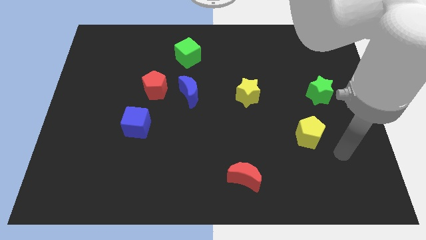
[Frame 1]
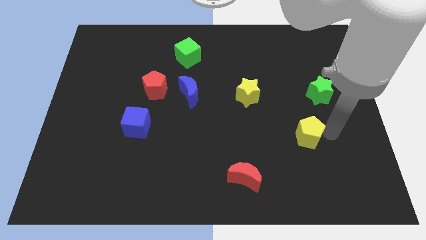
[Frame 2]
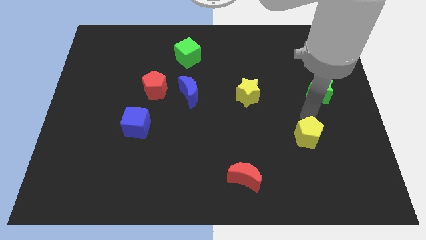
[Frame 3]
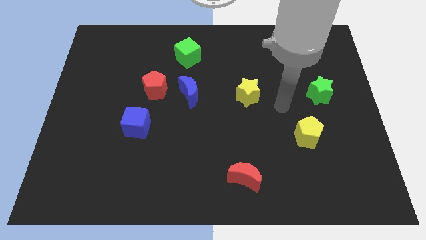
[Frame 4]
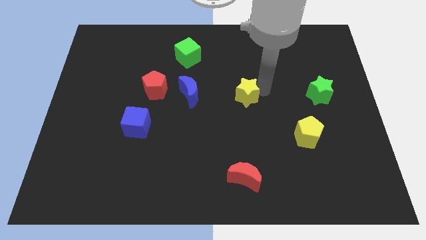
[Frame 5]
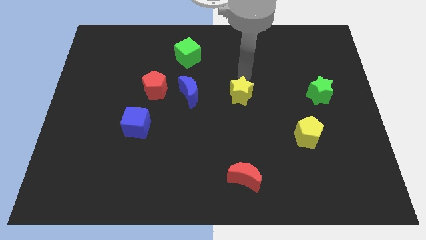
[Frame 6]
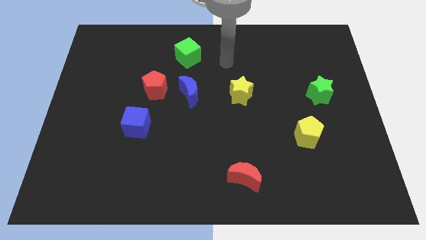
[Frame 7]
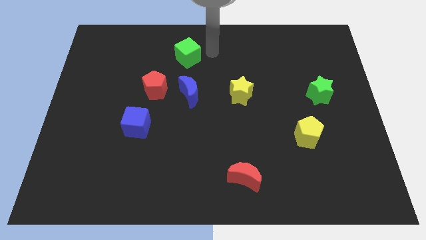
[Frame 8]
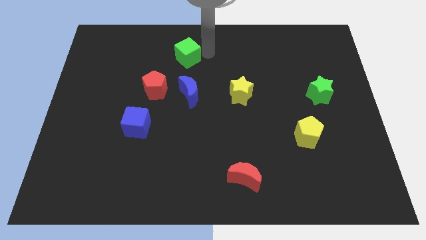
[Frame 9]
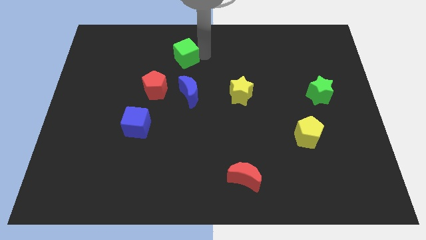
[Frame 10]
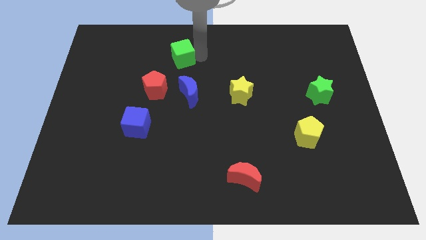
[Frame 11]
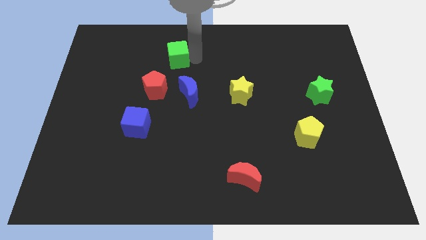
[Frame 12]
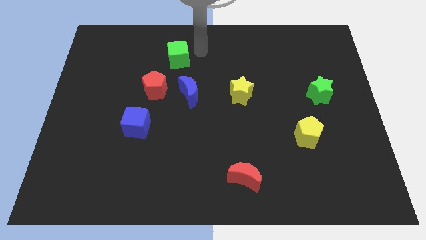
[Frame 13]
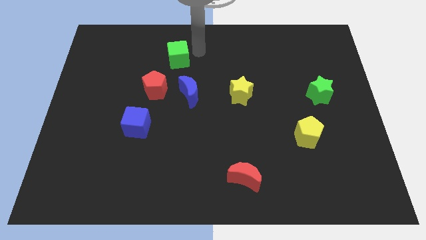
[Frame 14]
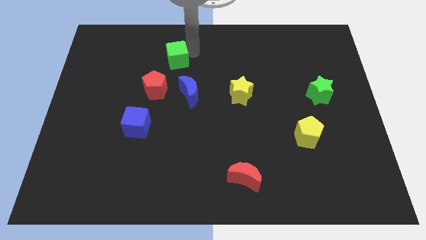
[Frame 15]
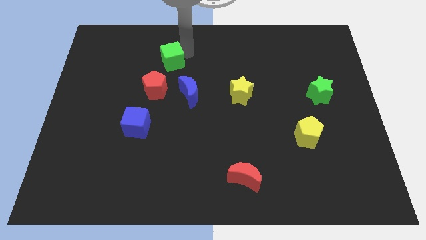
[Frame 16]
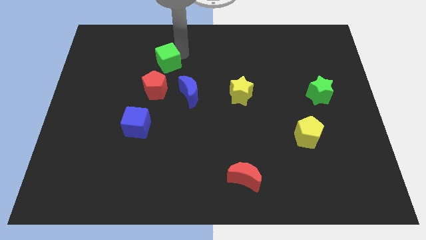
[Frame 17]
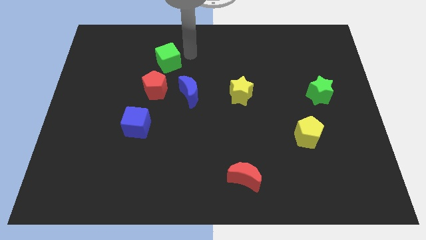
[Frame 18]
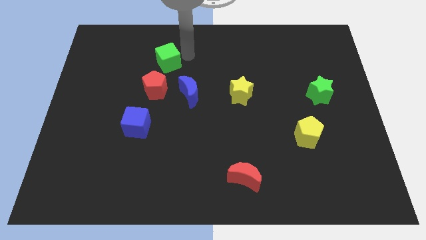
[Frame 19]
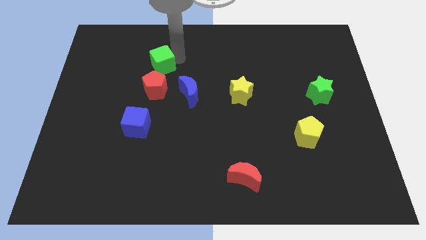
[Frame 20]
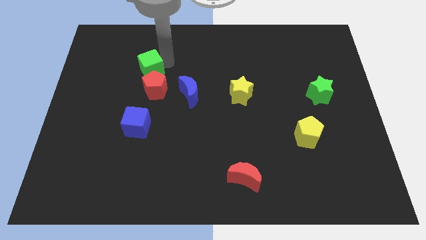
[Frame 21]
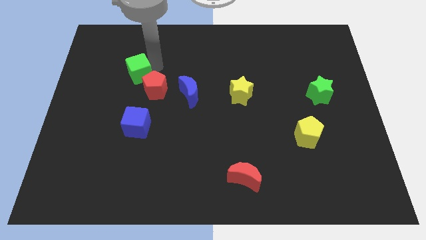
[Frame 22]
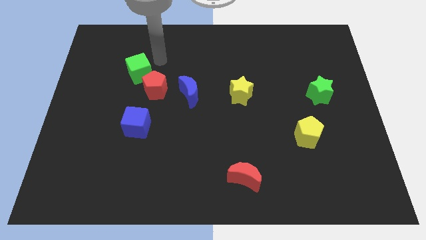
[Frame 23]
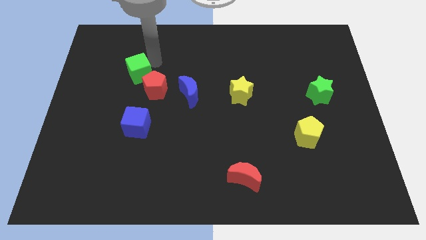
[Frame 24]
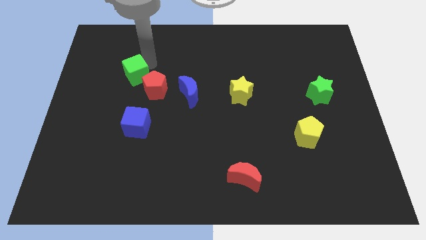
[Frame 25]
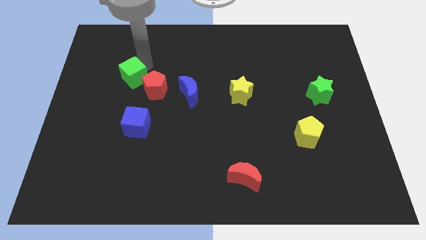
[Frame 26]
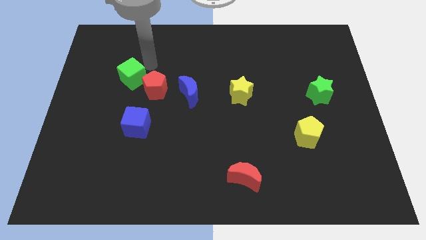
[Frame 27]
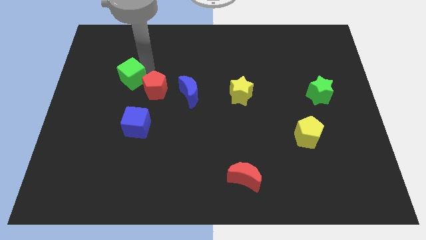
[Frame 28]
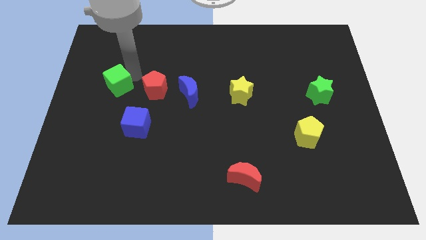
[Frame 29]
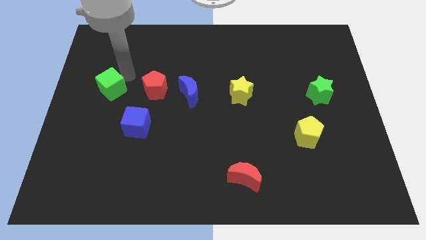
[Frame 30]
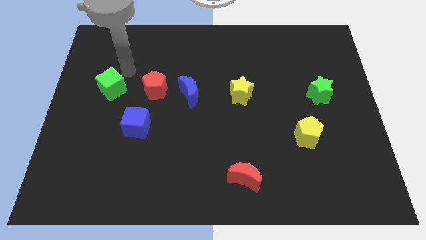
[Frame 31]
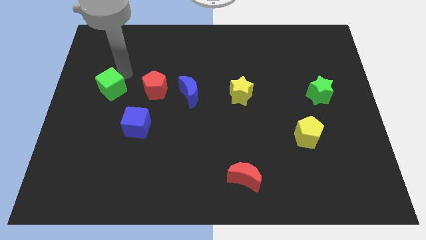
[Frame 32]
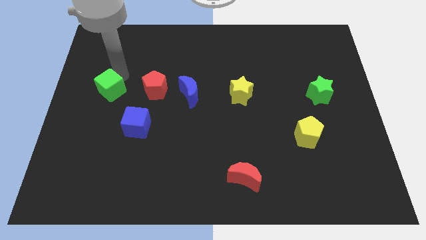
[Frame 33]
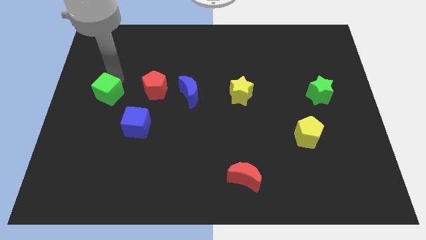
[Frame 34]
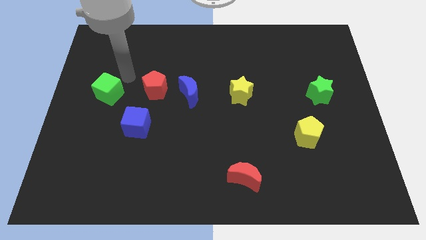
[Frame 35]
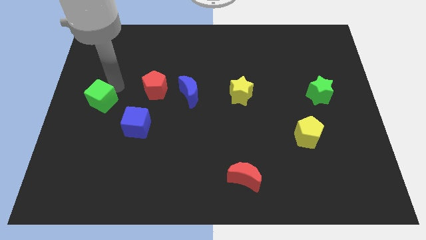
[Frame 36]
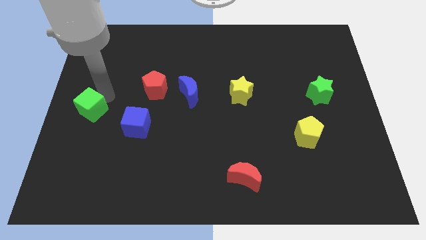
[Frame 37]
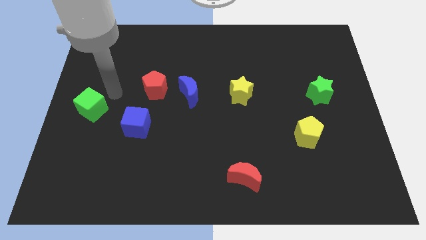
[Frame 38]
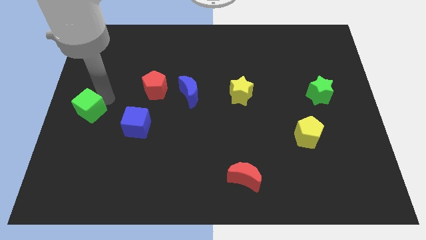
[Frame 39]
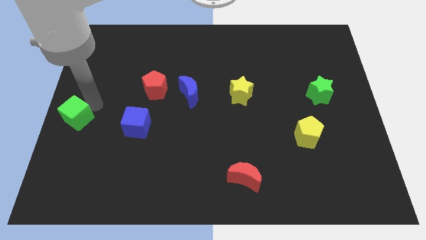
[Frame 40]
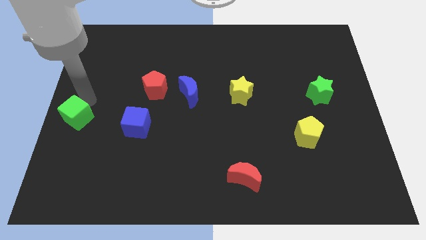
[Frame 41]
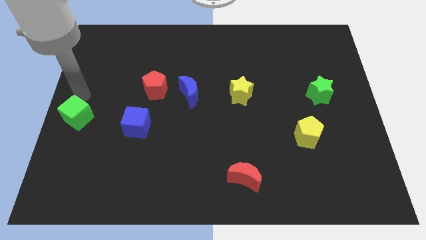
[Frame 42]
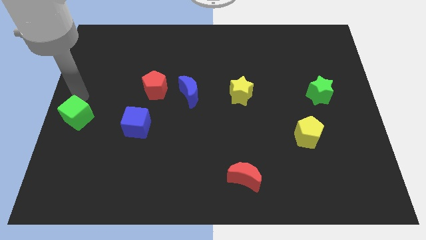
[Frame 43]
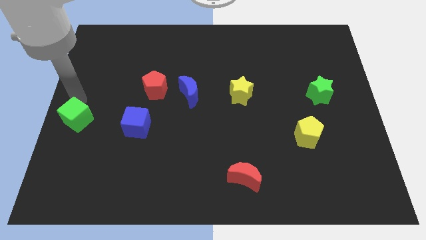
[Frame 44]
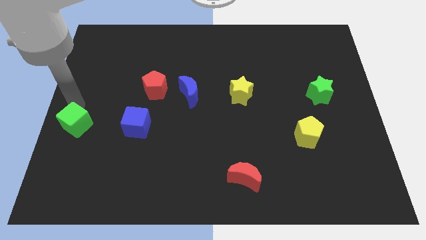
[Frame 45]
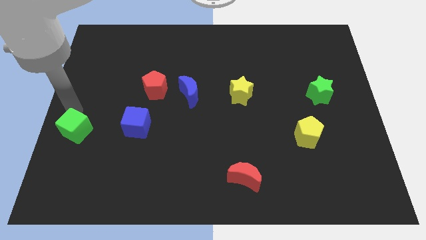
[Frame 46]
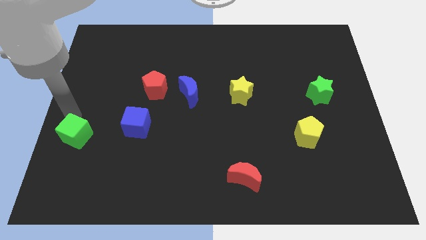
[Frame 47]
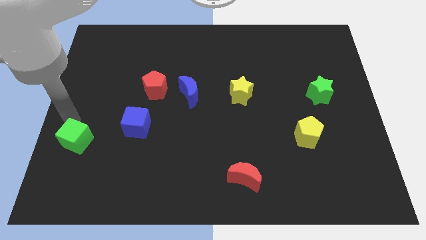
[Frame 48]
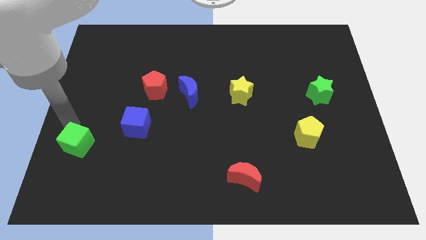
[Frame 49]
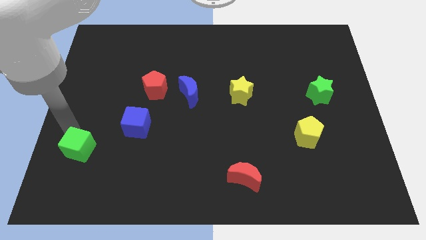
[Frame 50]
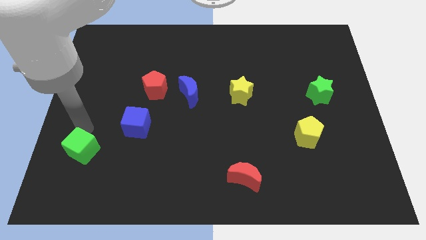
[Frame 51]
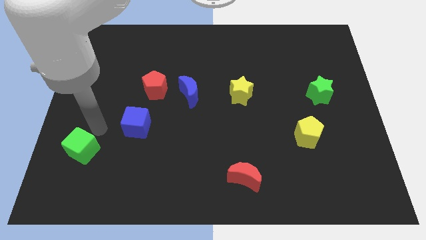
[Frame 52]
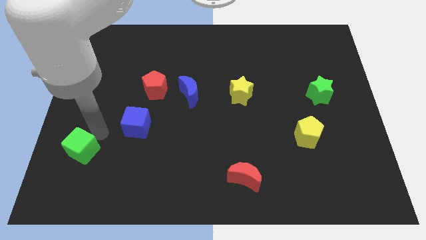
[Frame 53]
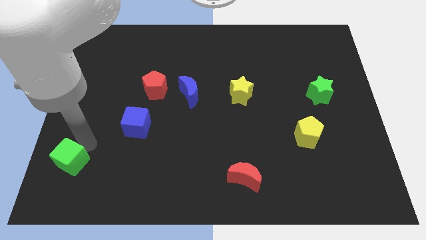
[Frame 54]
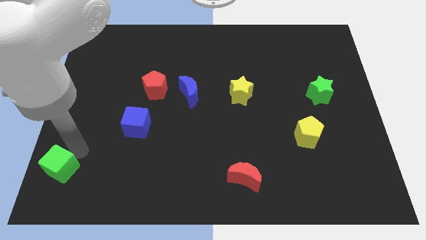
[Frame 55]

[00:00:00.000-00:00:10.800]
slide the green cube to the bottom left corner

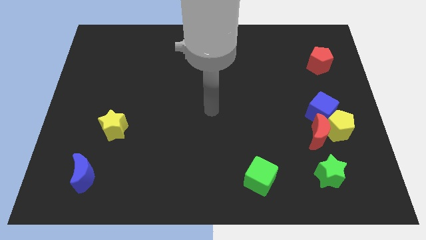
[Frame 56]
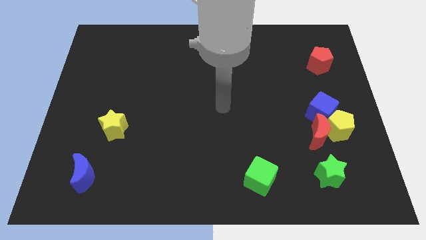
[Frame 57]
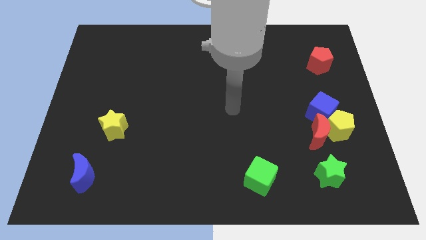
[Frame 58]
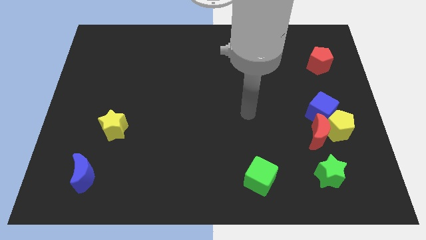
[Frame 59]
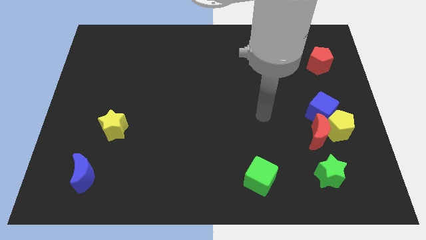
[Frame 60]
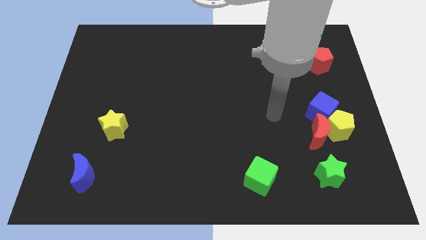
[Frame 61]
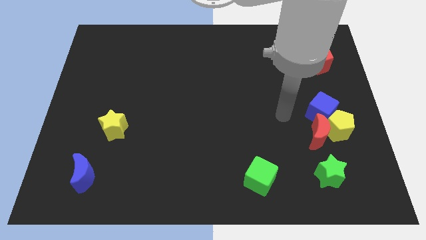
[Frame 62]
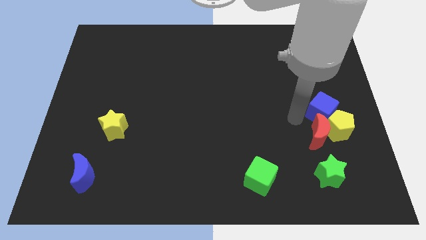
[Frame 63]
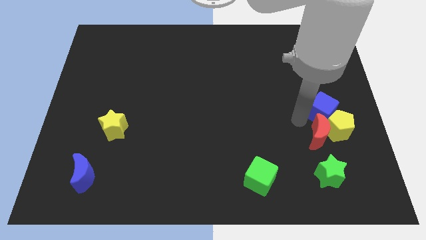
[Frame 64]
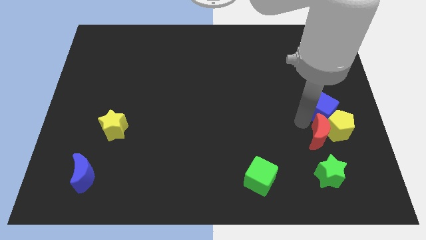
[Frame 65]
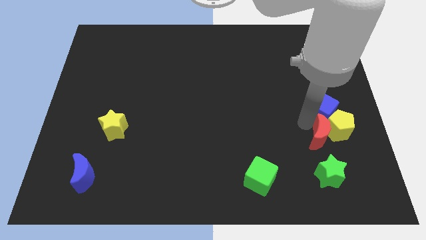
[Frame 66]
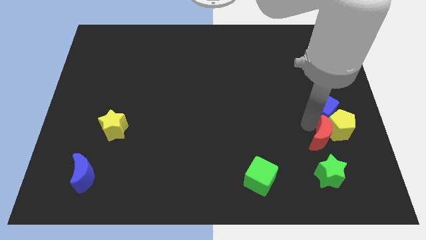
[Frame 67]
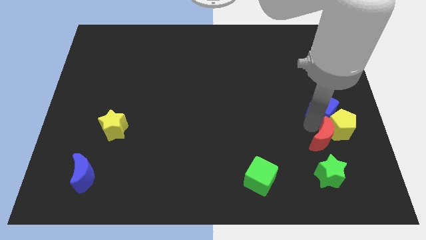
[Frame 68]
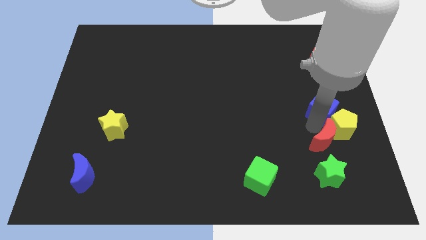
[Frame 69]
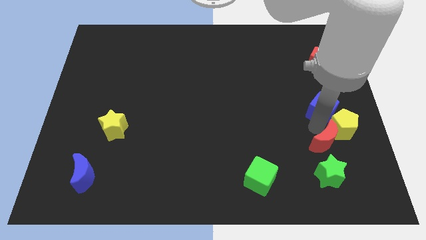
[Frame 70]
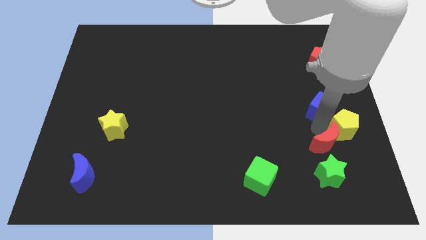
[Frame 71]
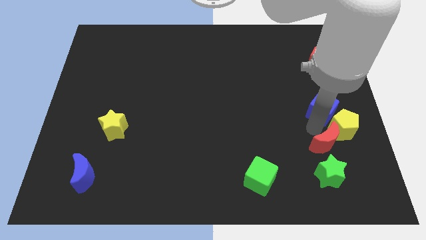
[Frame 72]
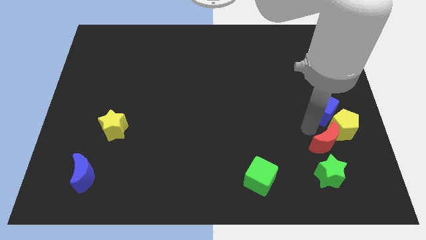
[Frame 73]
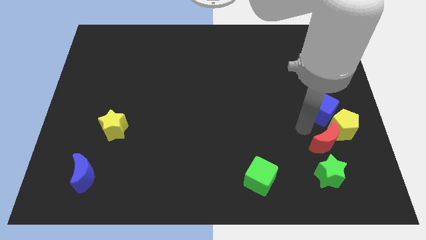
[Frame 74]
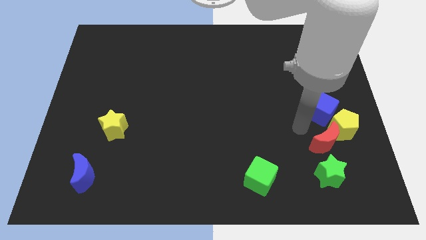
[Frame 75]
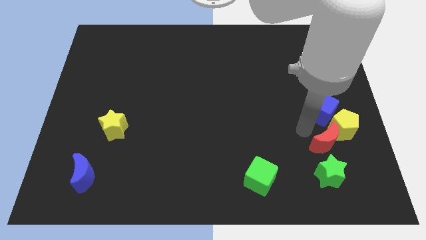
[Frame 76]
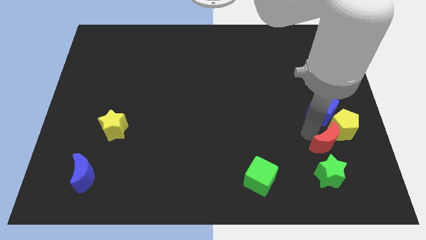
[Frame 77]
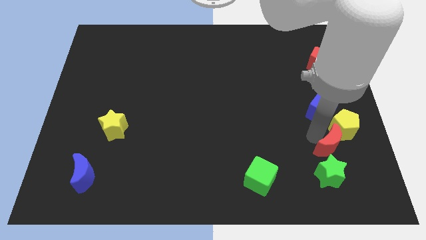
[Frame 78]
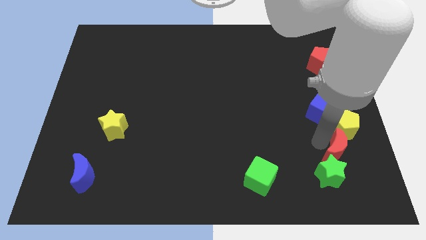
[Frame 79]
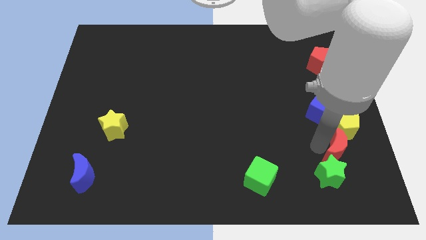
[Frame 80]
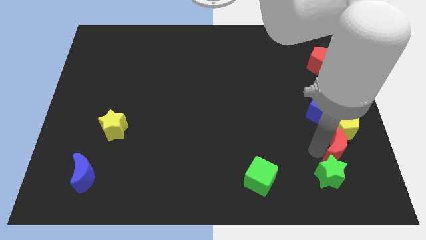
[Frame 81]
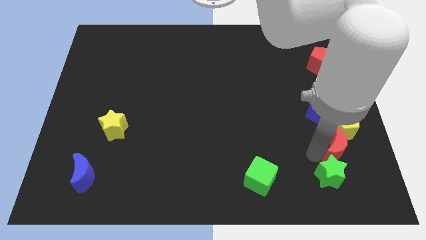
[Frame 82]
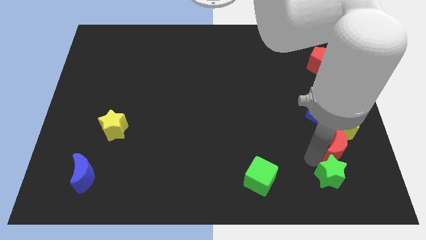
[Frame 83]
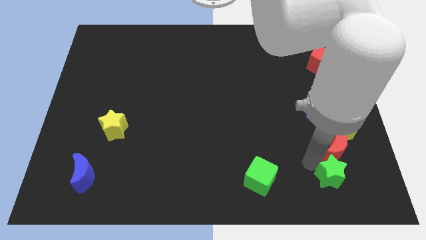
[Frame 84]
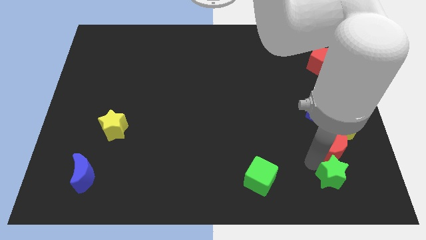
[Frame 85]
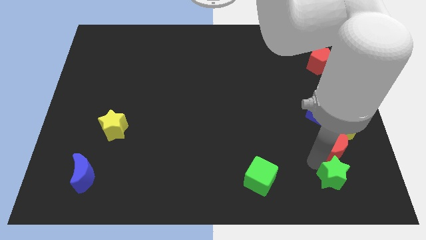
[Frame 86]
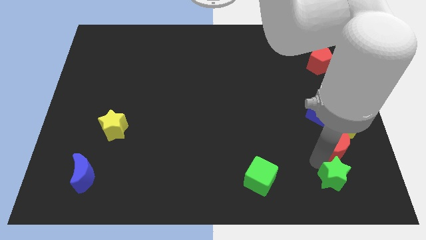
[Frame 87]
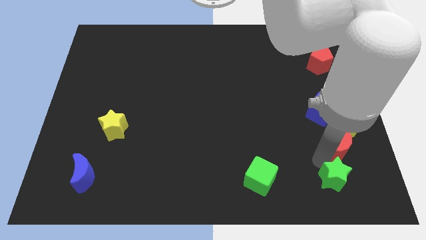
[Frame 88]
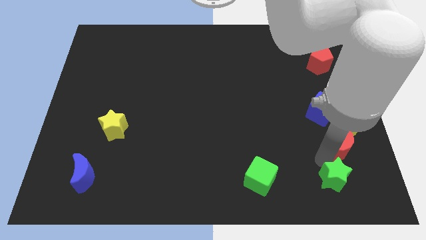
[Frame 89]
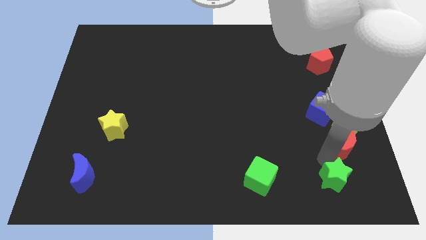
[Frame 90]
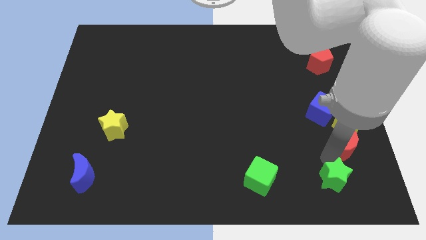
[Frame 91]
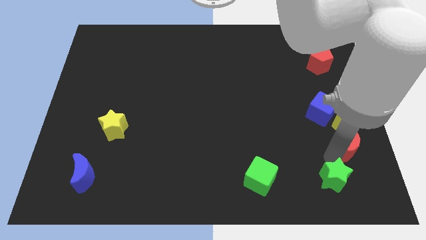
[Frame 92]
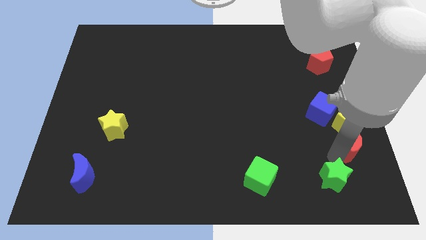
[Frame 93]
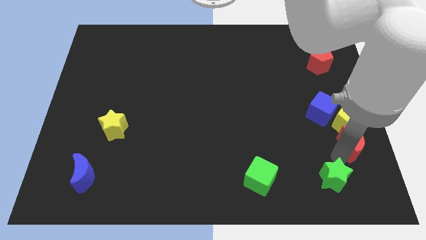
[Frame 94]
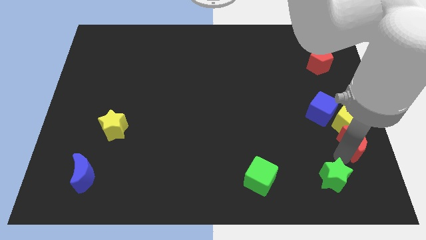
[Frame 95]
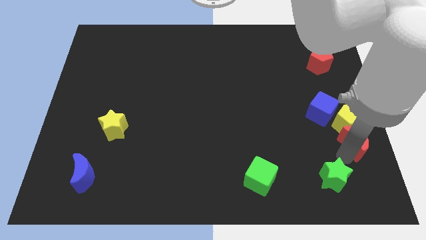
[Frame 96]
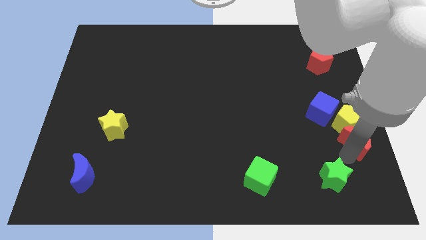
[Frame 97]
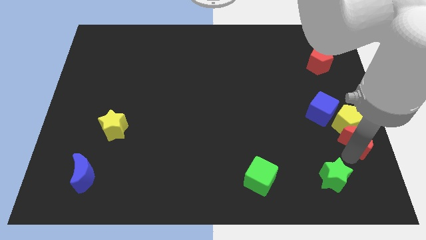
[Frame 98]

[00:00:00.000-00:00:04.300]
move the red moon to the right side
